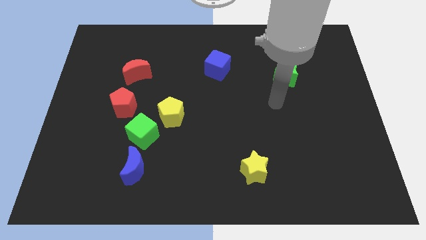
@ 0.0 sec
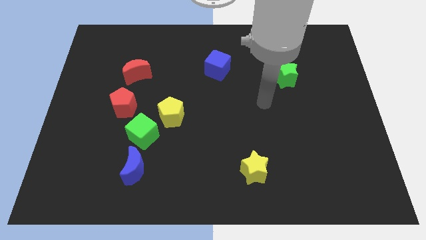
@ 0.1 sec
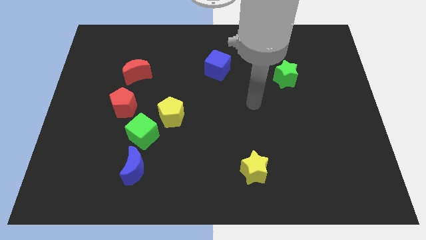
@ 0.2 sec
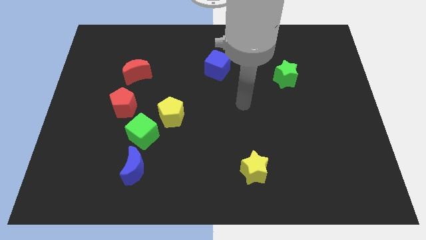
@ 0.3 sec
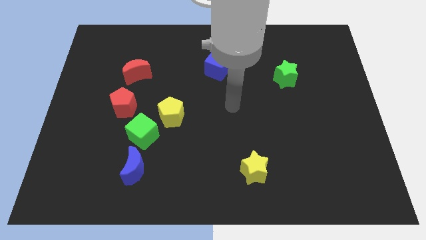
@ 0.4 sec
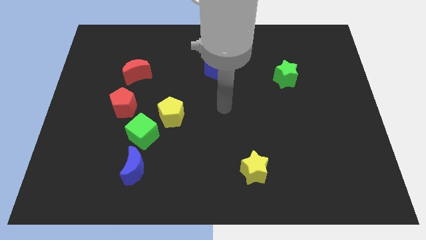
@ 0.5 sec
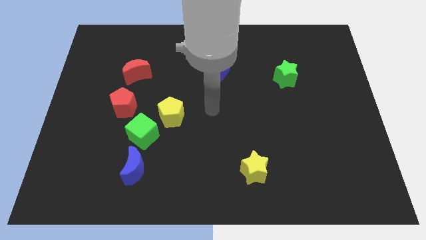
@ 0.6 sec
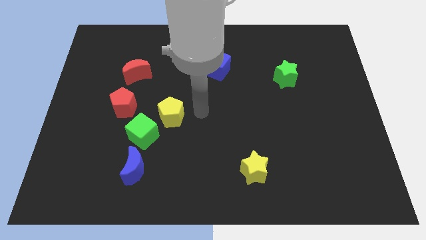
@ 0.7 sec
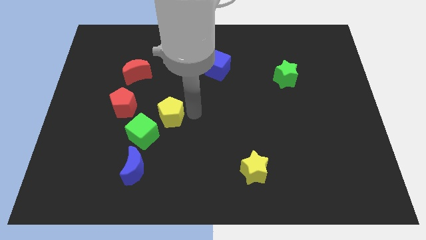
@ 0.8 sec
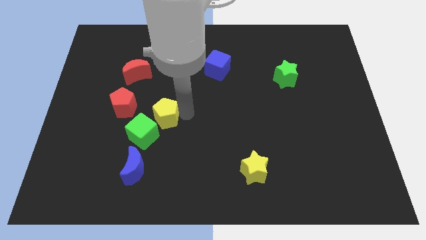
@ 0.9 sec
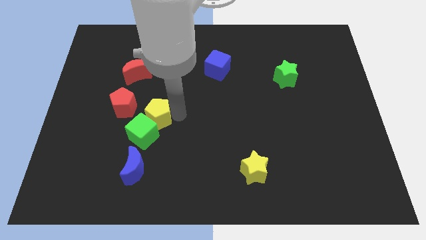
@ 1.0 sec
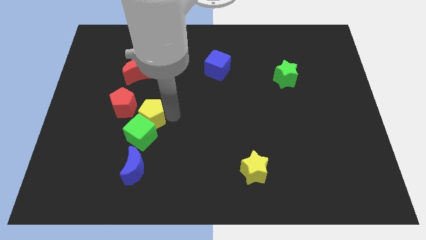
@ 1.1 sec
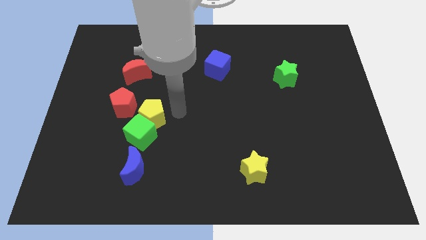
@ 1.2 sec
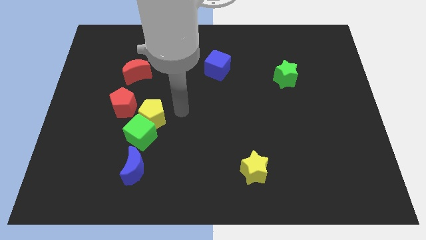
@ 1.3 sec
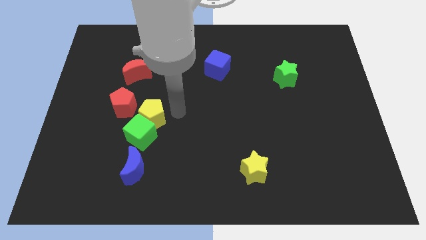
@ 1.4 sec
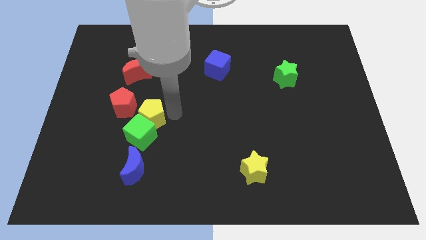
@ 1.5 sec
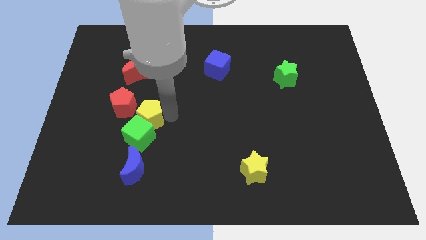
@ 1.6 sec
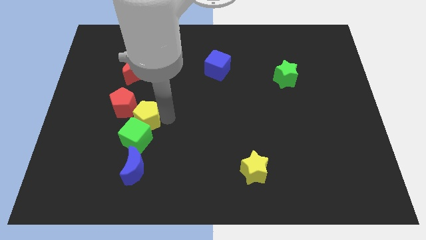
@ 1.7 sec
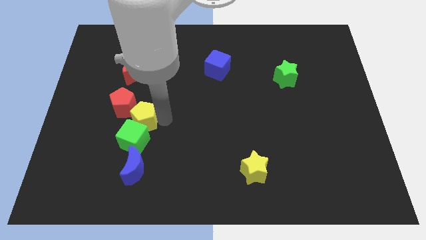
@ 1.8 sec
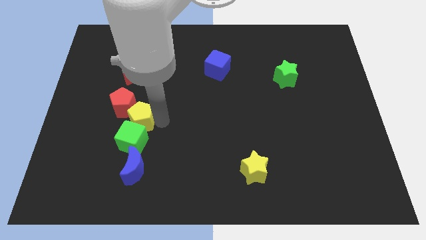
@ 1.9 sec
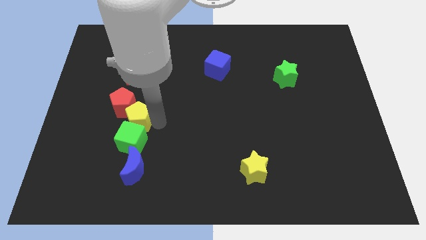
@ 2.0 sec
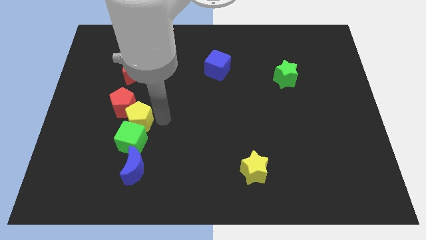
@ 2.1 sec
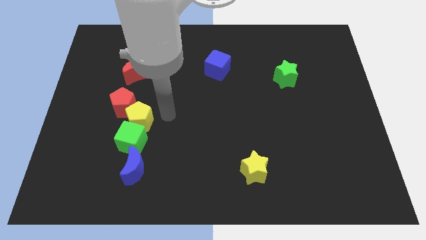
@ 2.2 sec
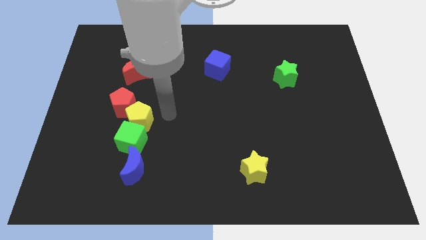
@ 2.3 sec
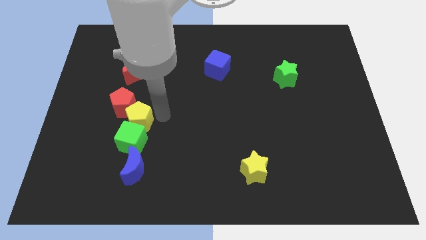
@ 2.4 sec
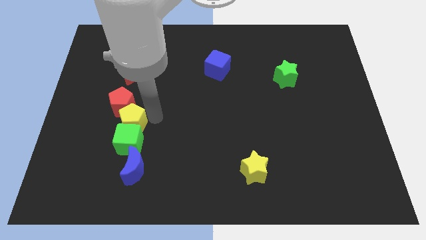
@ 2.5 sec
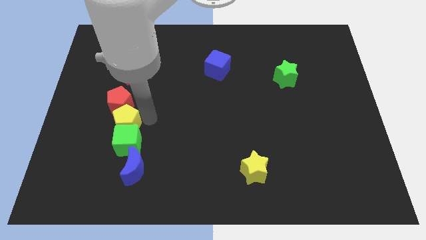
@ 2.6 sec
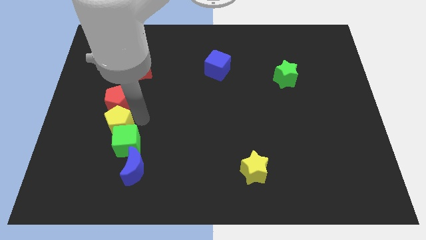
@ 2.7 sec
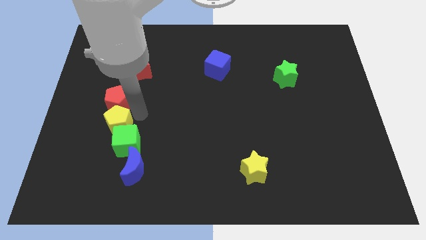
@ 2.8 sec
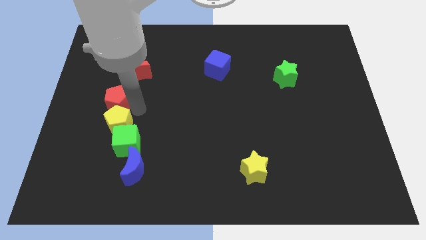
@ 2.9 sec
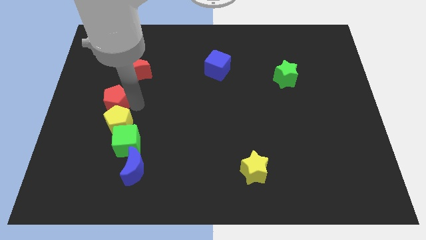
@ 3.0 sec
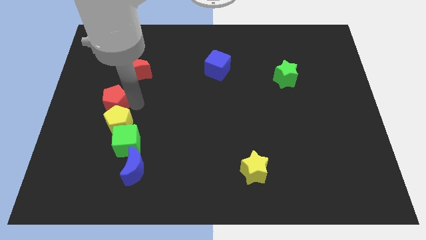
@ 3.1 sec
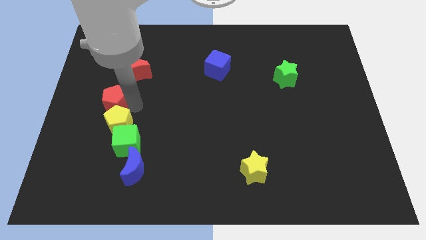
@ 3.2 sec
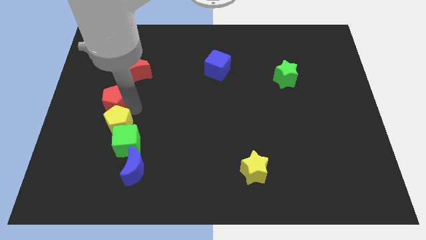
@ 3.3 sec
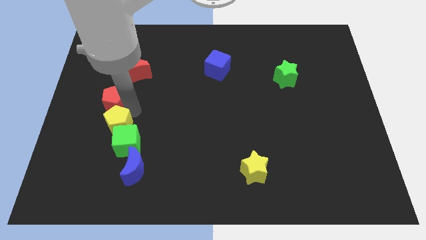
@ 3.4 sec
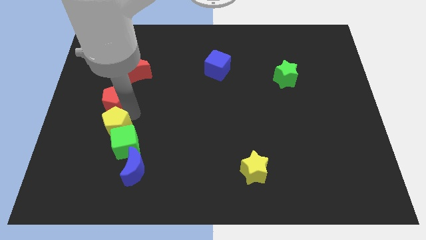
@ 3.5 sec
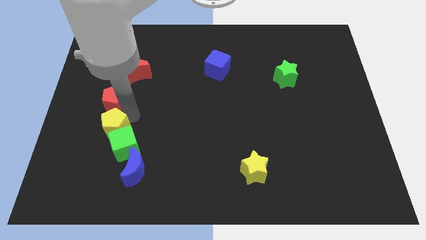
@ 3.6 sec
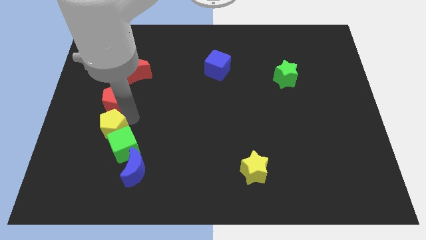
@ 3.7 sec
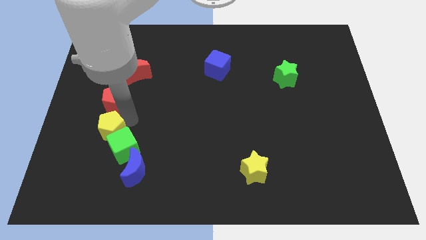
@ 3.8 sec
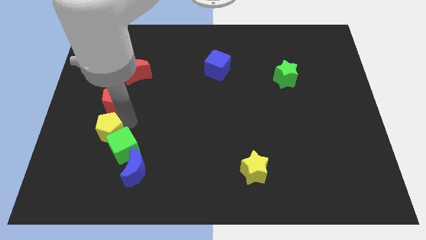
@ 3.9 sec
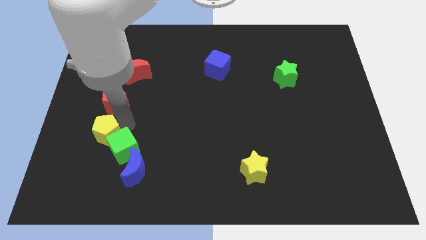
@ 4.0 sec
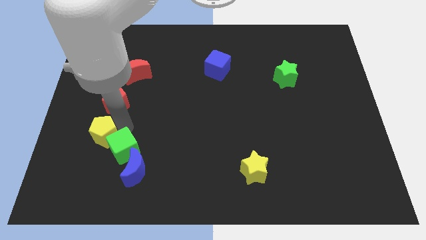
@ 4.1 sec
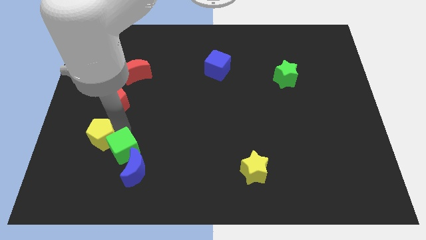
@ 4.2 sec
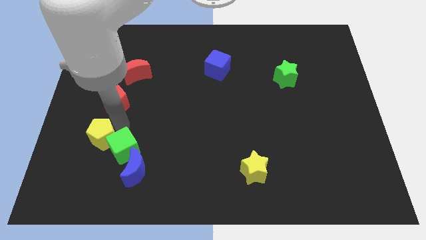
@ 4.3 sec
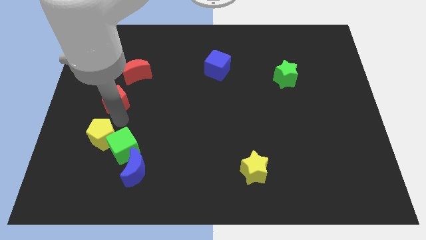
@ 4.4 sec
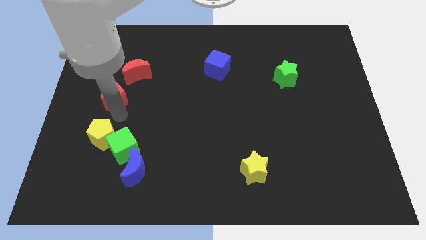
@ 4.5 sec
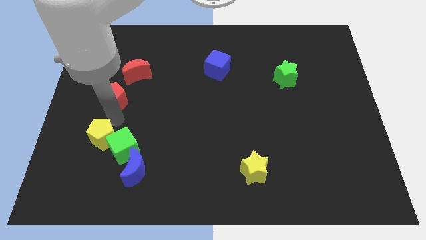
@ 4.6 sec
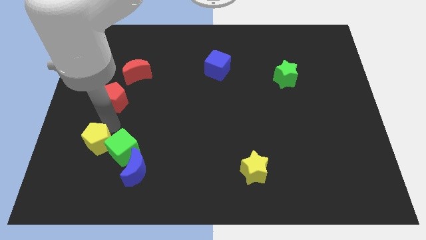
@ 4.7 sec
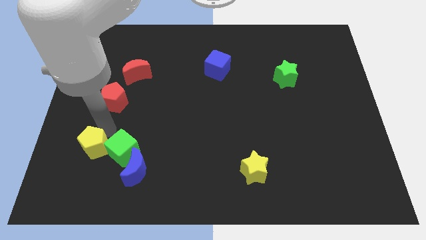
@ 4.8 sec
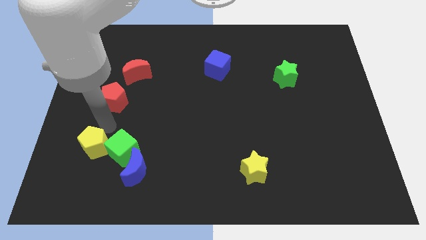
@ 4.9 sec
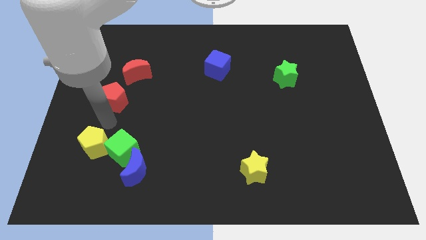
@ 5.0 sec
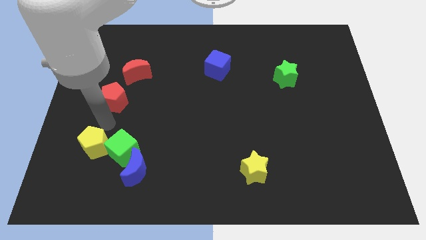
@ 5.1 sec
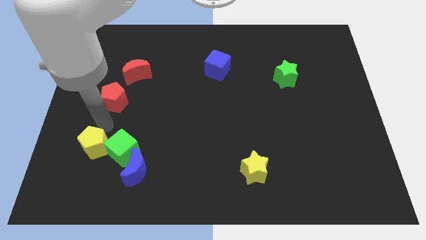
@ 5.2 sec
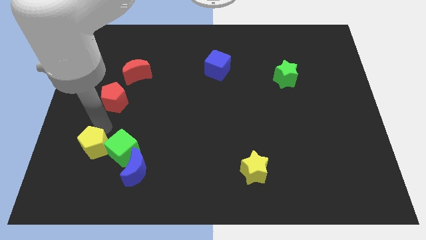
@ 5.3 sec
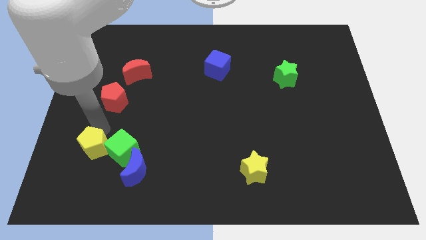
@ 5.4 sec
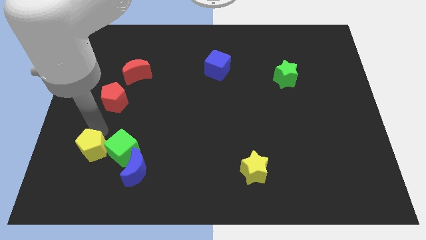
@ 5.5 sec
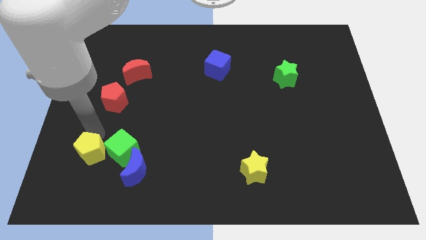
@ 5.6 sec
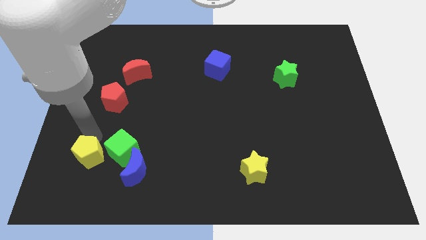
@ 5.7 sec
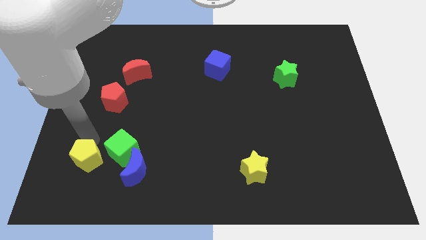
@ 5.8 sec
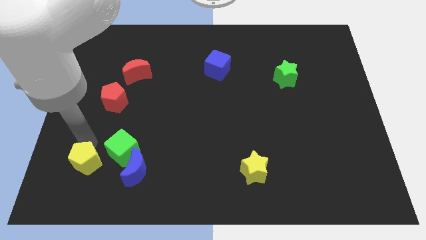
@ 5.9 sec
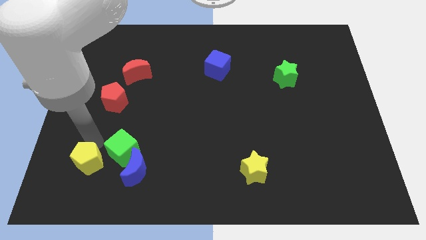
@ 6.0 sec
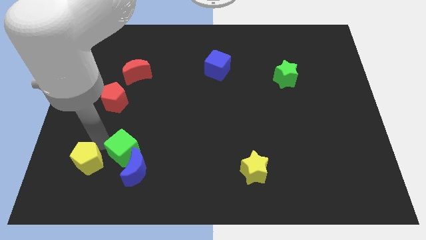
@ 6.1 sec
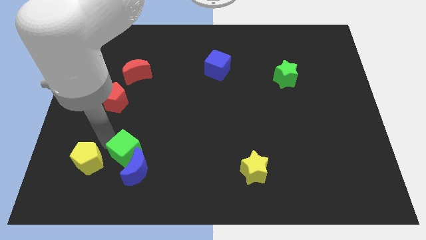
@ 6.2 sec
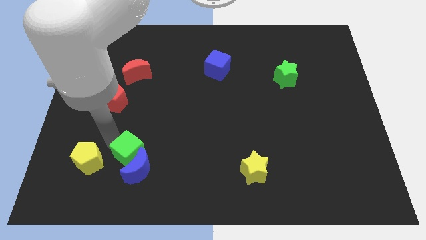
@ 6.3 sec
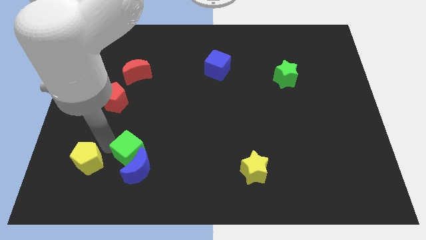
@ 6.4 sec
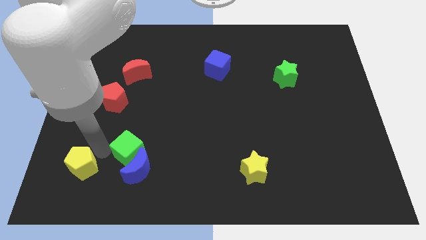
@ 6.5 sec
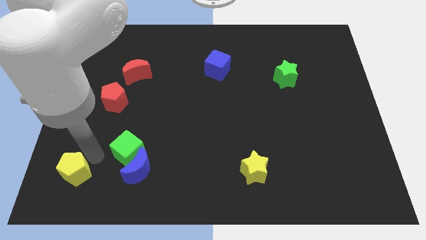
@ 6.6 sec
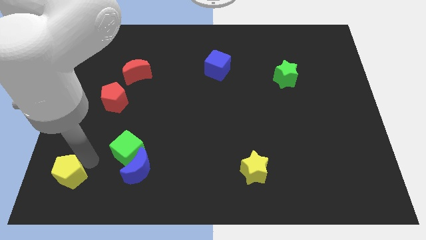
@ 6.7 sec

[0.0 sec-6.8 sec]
move the yellow pentagon to the lower left corner

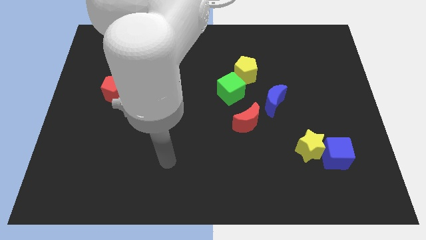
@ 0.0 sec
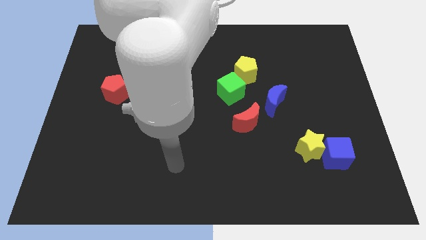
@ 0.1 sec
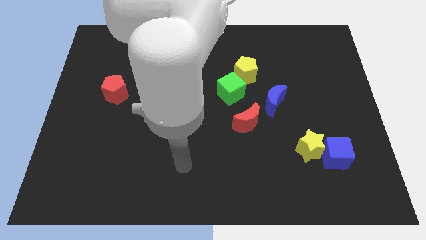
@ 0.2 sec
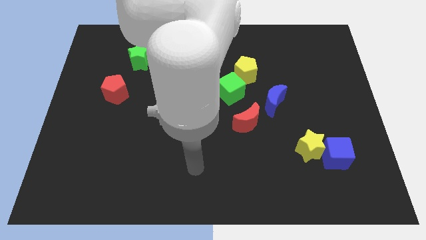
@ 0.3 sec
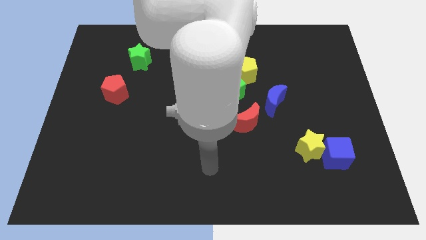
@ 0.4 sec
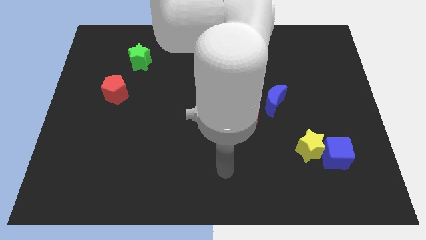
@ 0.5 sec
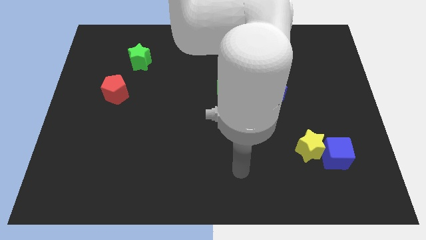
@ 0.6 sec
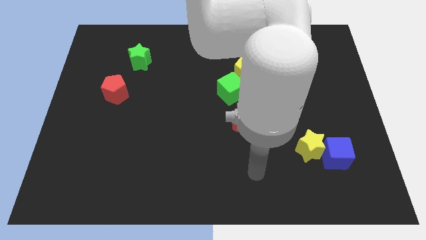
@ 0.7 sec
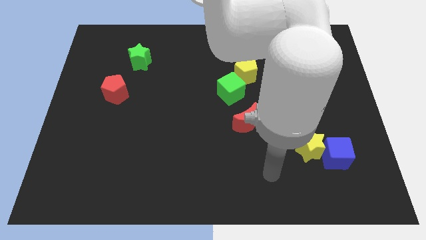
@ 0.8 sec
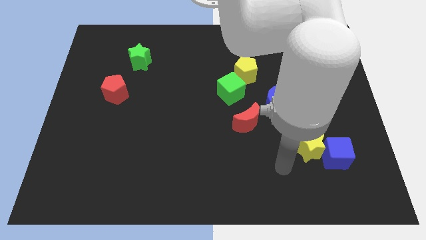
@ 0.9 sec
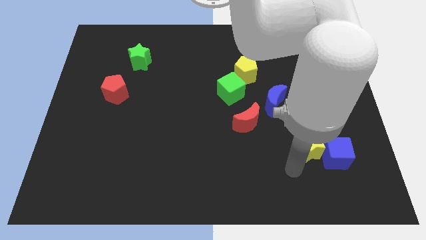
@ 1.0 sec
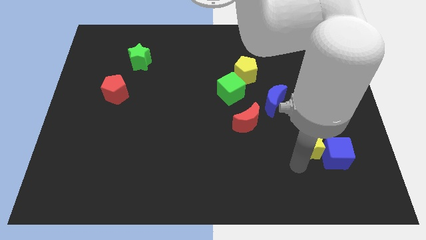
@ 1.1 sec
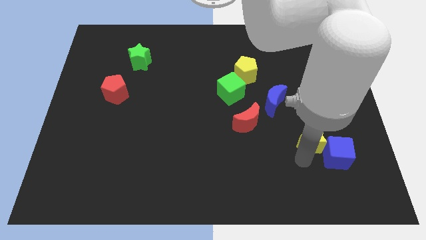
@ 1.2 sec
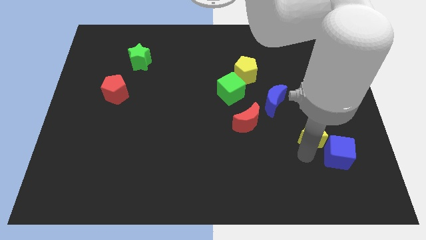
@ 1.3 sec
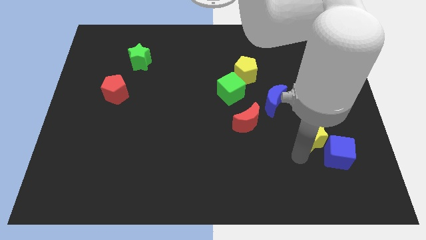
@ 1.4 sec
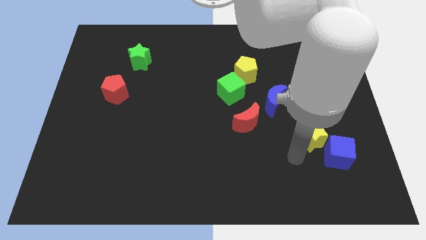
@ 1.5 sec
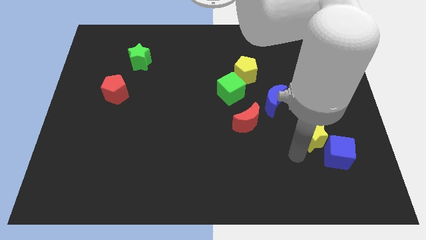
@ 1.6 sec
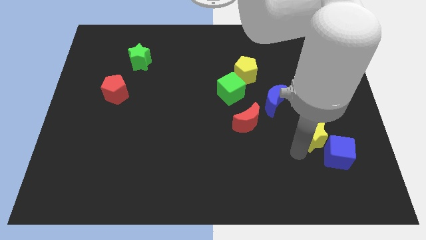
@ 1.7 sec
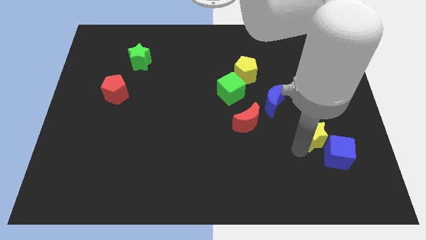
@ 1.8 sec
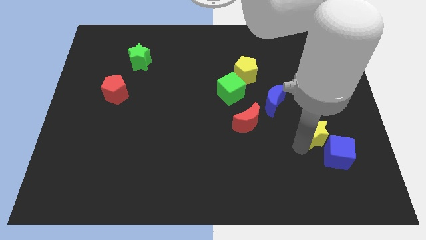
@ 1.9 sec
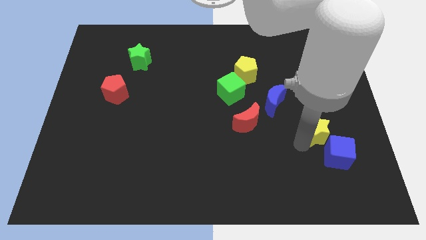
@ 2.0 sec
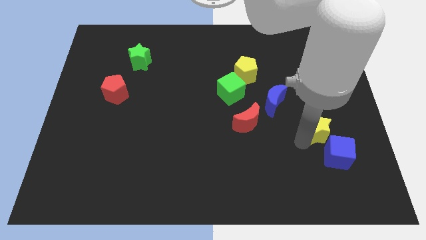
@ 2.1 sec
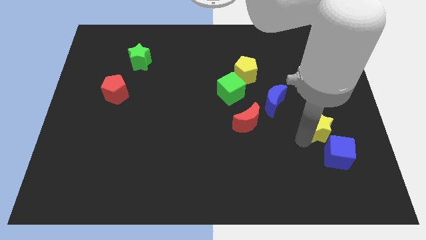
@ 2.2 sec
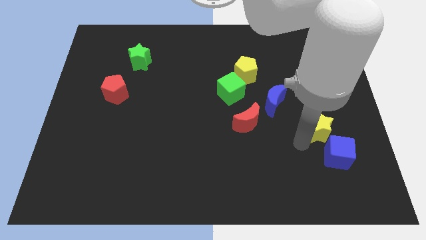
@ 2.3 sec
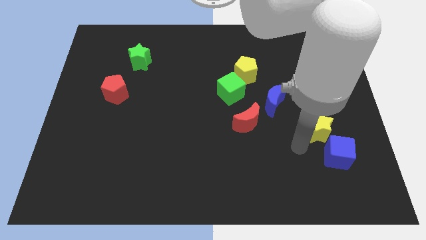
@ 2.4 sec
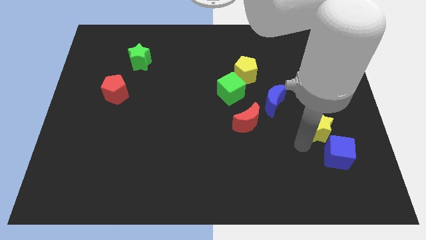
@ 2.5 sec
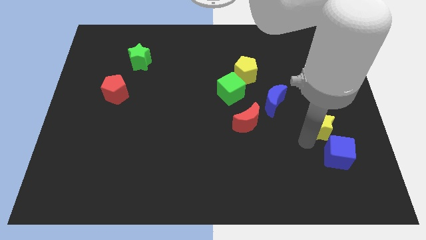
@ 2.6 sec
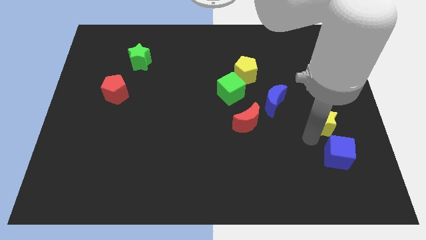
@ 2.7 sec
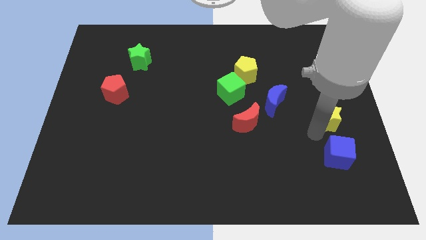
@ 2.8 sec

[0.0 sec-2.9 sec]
move the yellow star to the right side of the board
